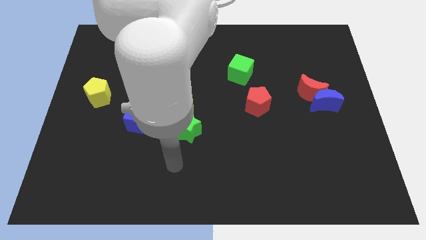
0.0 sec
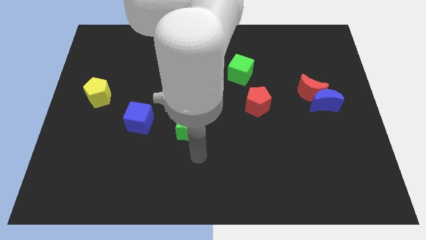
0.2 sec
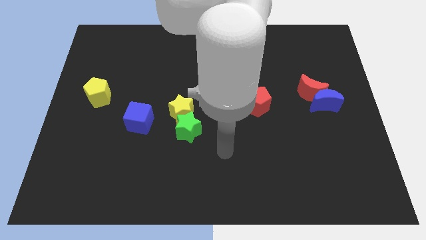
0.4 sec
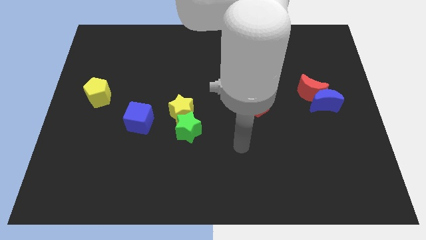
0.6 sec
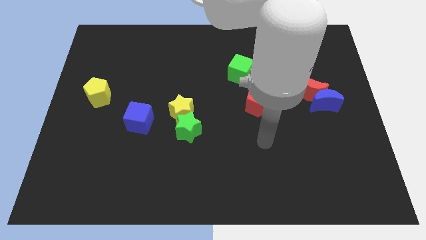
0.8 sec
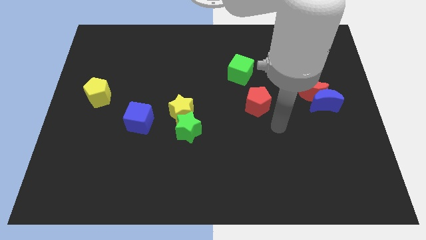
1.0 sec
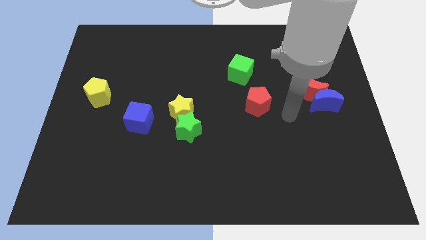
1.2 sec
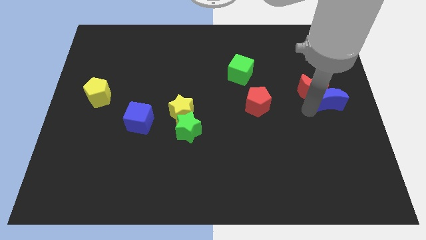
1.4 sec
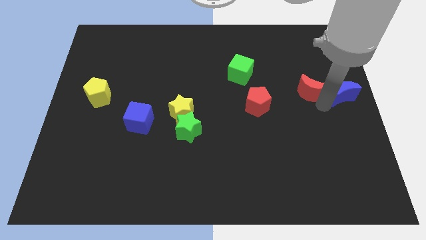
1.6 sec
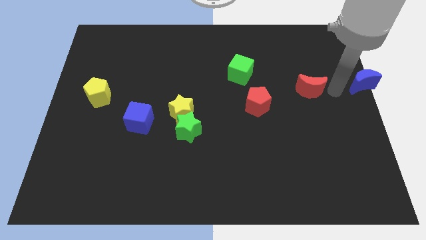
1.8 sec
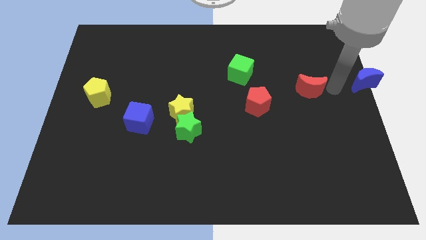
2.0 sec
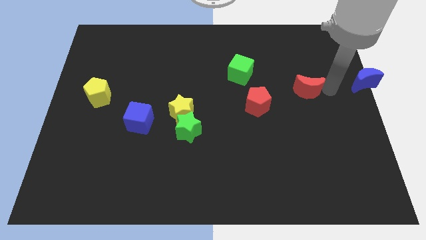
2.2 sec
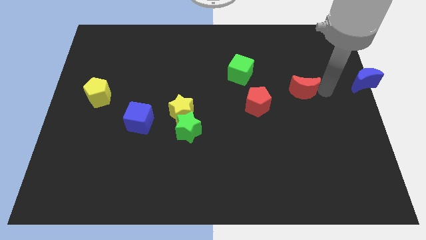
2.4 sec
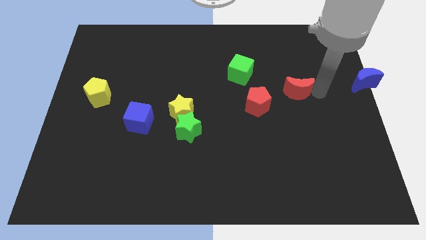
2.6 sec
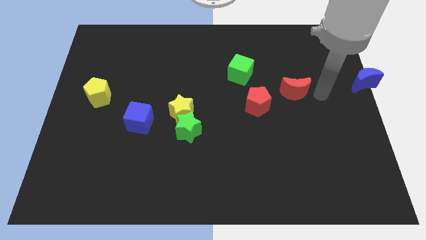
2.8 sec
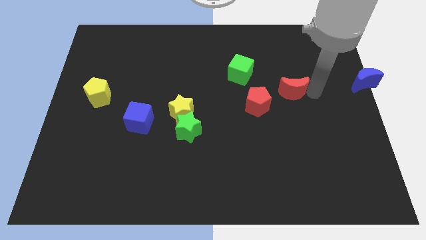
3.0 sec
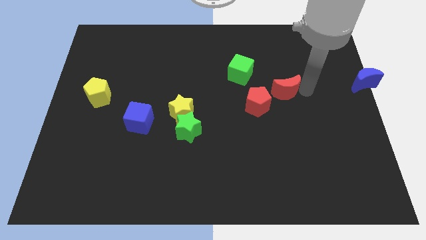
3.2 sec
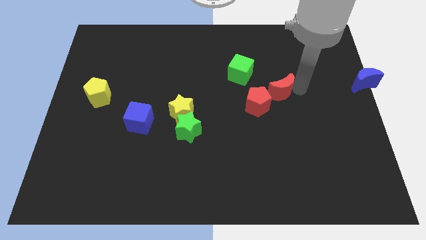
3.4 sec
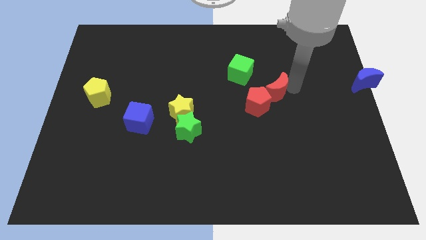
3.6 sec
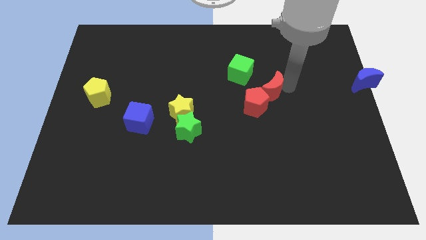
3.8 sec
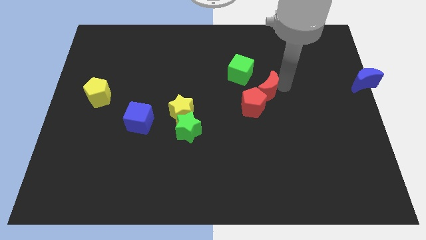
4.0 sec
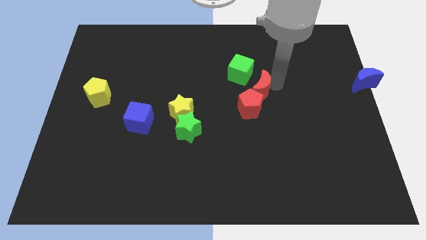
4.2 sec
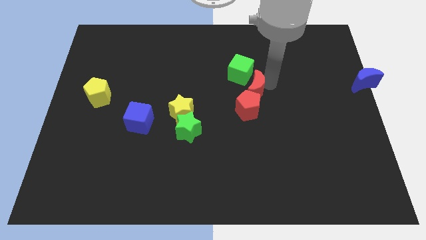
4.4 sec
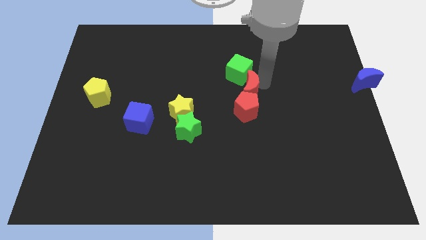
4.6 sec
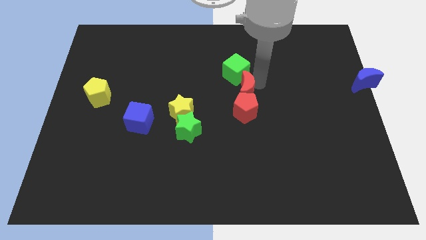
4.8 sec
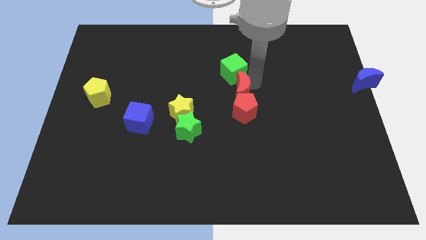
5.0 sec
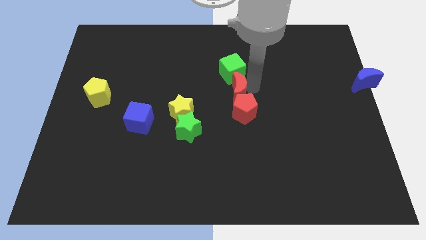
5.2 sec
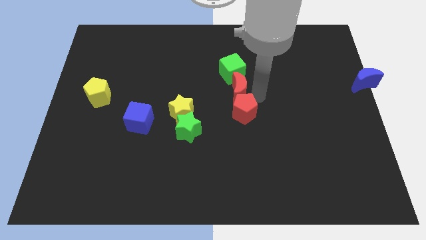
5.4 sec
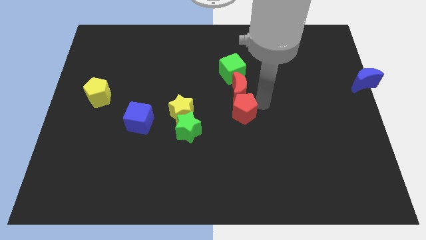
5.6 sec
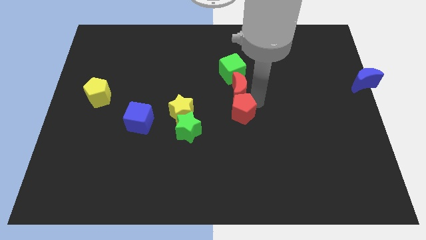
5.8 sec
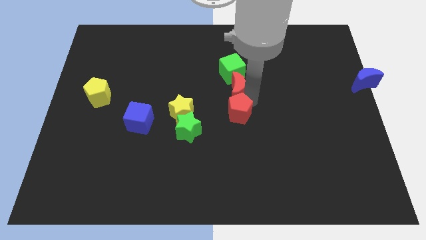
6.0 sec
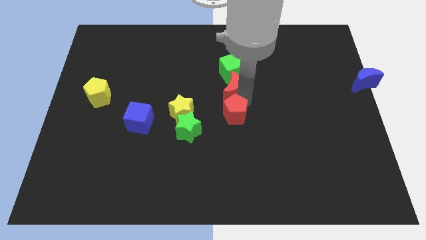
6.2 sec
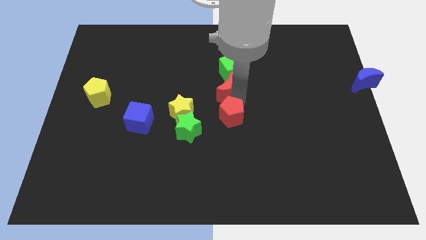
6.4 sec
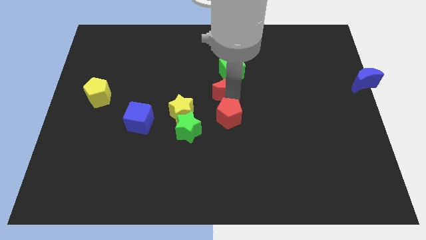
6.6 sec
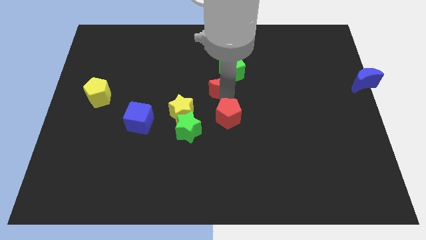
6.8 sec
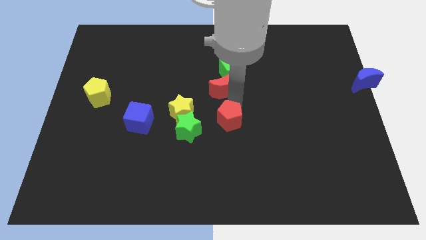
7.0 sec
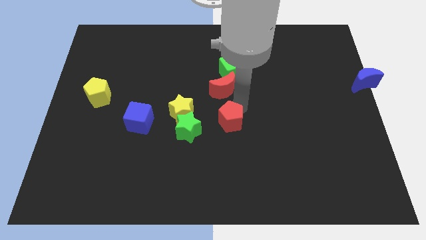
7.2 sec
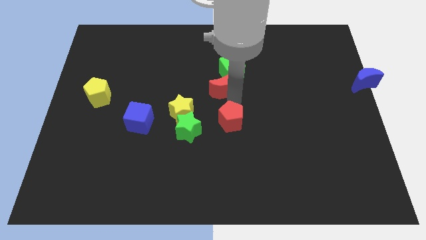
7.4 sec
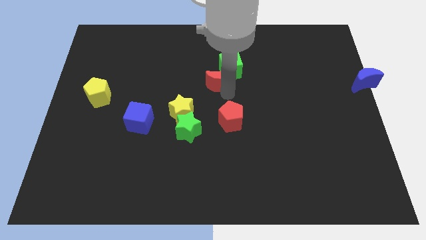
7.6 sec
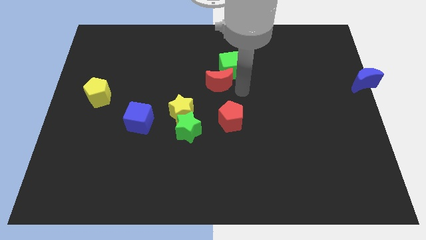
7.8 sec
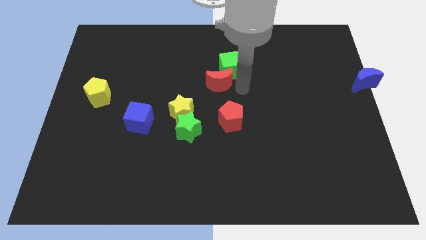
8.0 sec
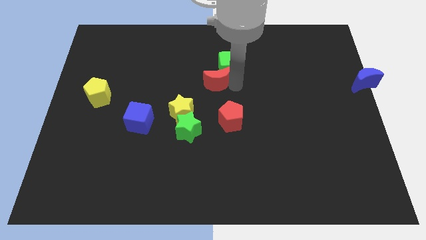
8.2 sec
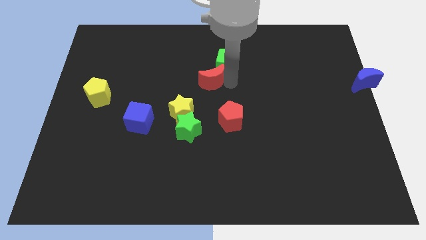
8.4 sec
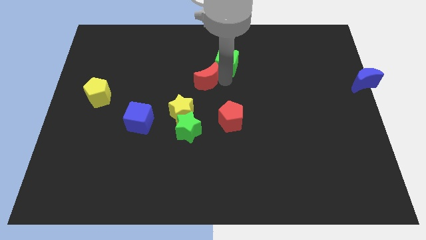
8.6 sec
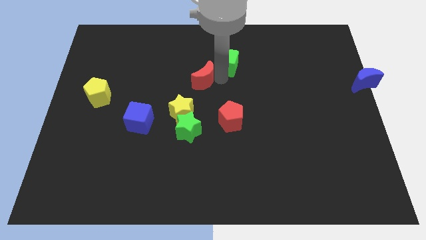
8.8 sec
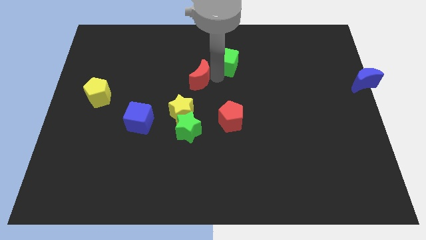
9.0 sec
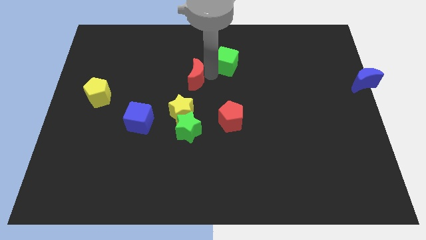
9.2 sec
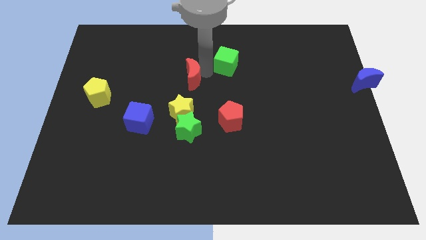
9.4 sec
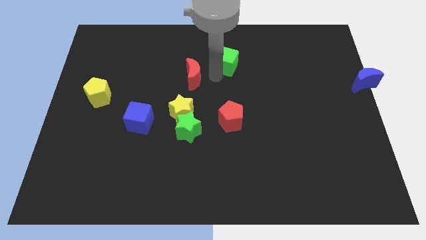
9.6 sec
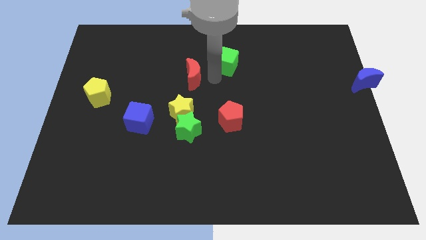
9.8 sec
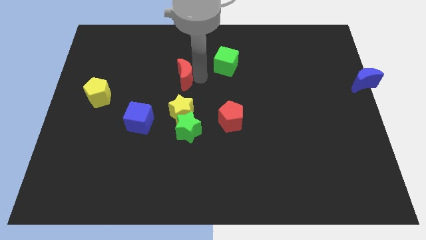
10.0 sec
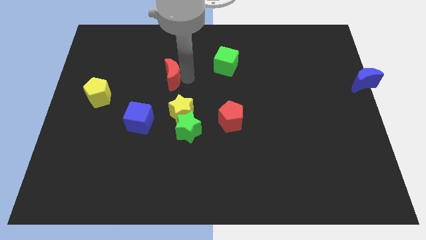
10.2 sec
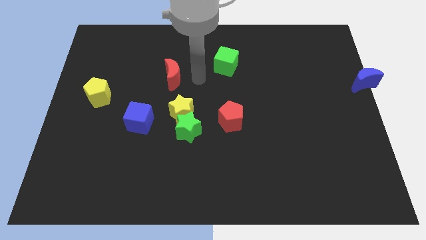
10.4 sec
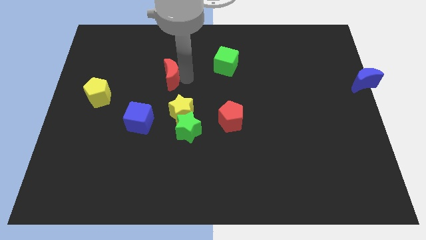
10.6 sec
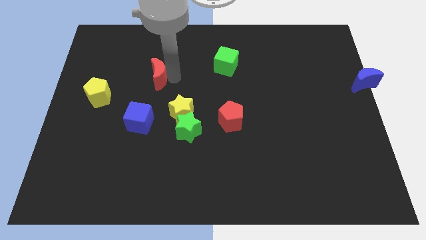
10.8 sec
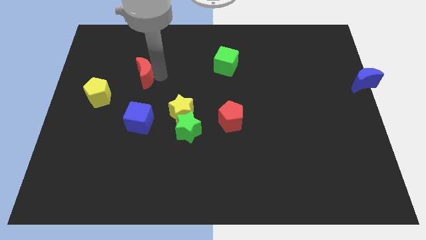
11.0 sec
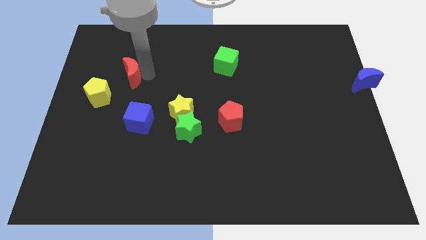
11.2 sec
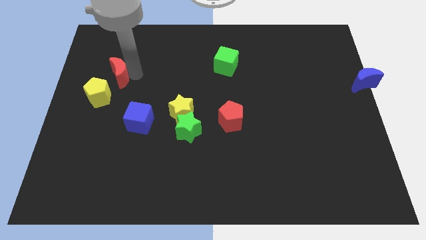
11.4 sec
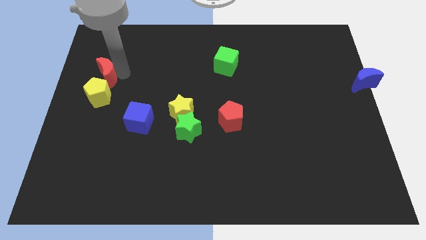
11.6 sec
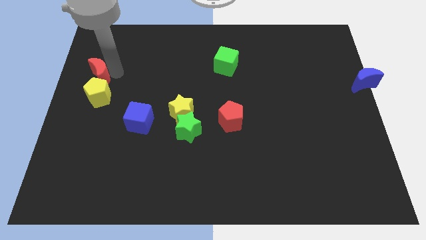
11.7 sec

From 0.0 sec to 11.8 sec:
push the red moon to the left side of the board
